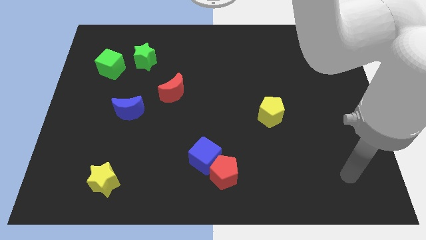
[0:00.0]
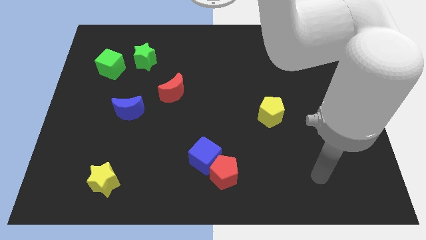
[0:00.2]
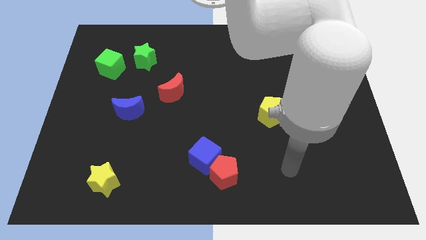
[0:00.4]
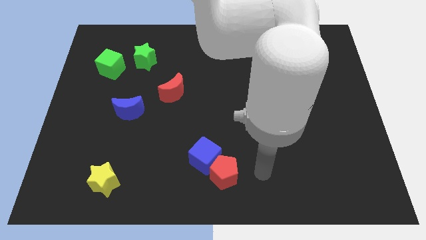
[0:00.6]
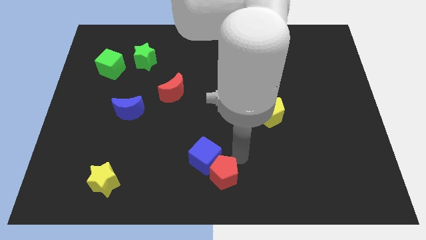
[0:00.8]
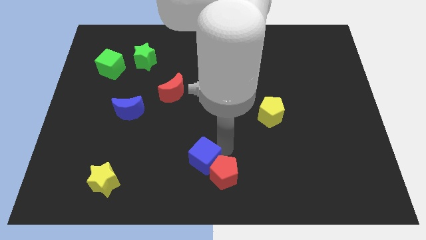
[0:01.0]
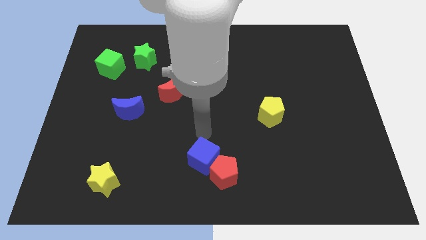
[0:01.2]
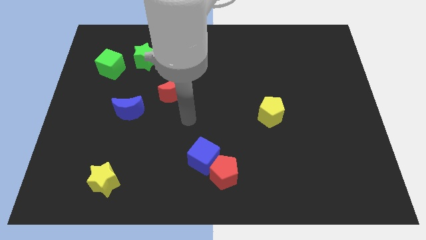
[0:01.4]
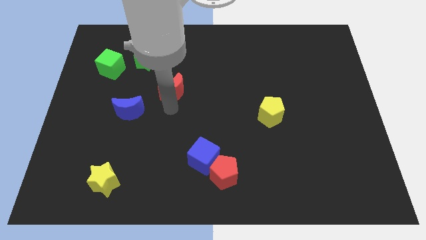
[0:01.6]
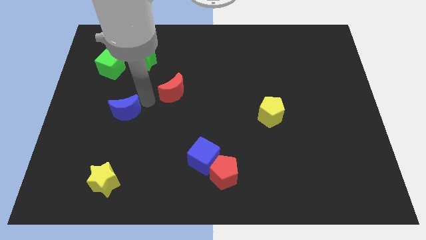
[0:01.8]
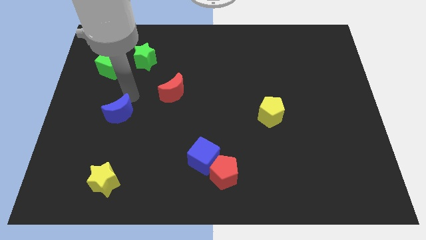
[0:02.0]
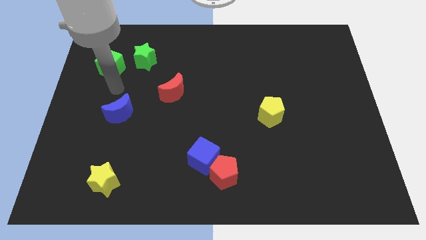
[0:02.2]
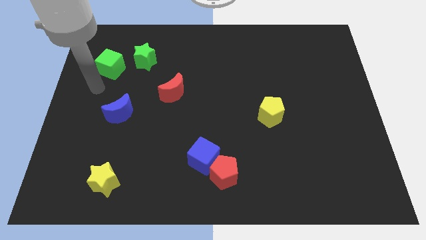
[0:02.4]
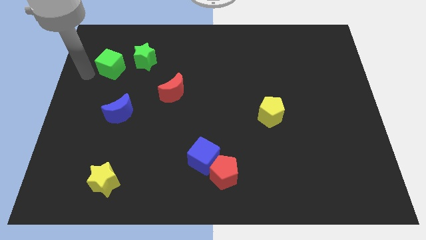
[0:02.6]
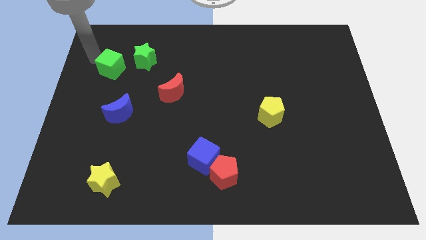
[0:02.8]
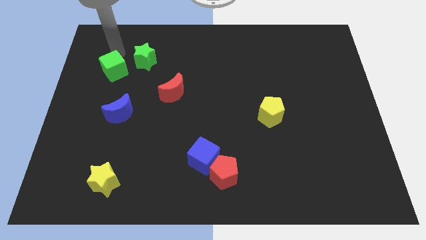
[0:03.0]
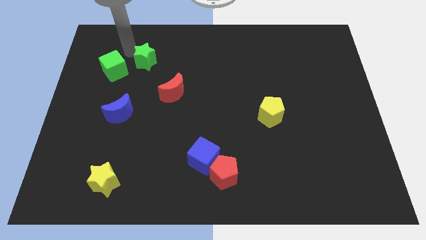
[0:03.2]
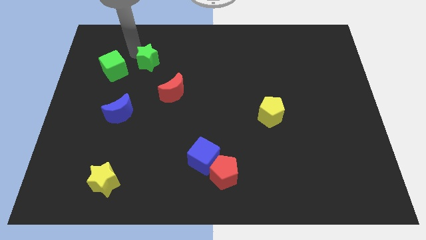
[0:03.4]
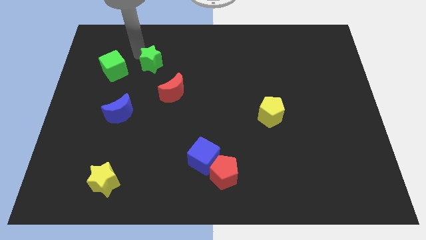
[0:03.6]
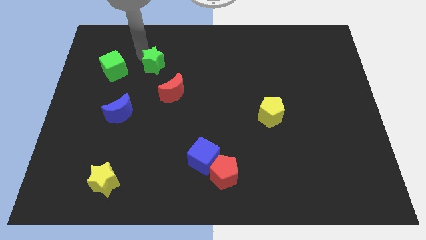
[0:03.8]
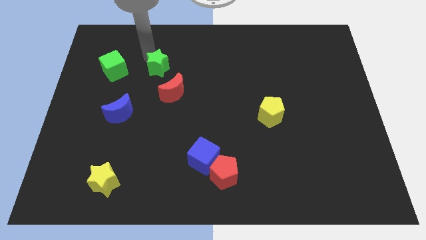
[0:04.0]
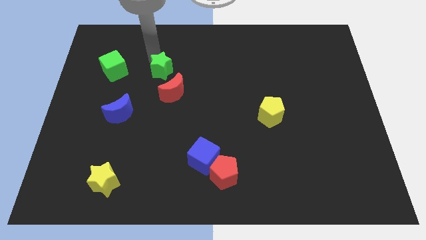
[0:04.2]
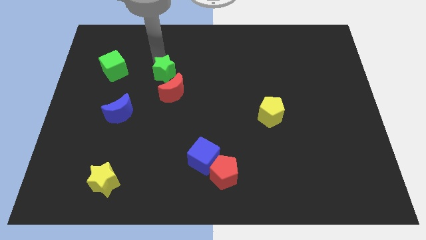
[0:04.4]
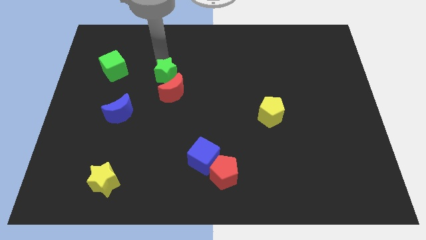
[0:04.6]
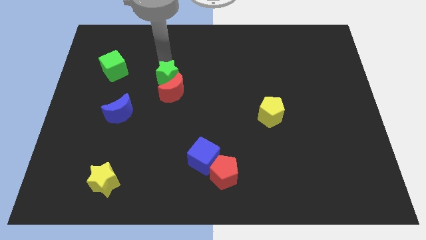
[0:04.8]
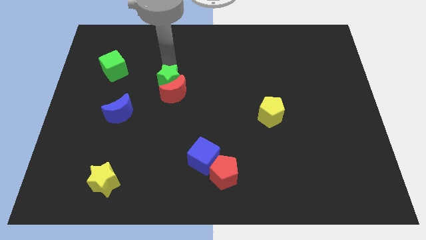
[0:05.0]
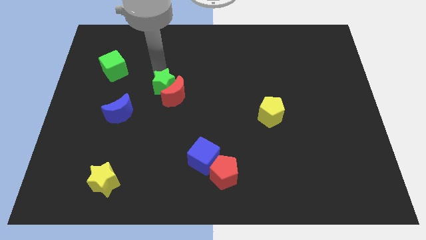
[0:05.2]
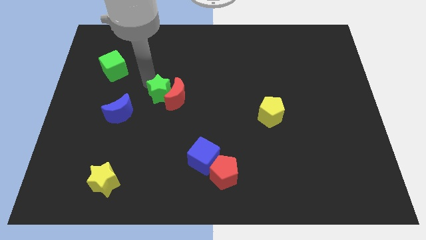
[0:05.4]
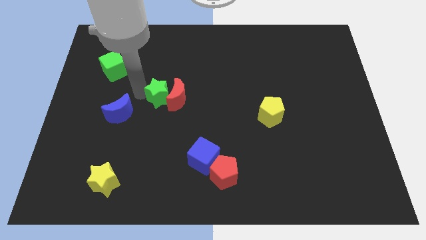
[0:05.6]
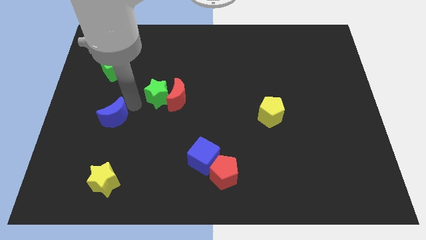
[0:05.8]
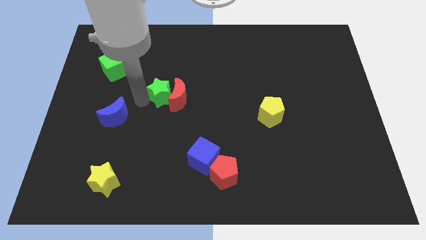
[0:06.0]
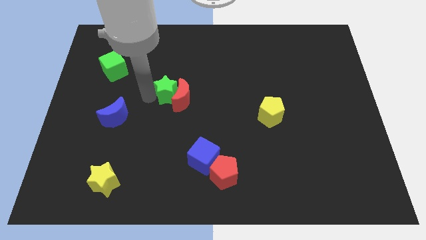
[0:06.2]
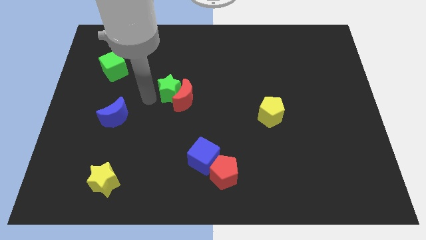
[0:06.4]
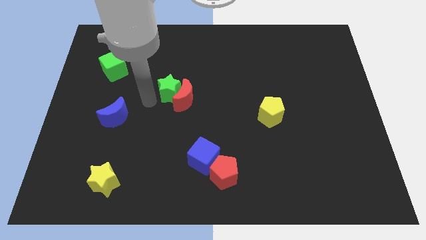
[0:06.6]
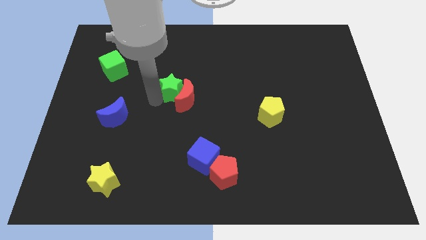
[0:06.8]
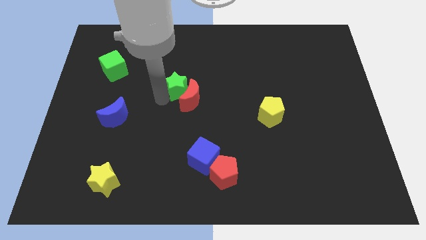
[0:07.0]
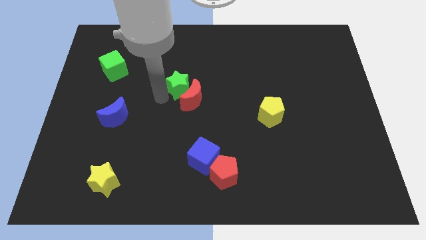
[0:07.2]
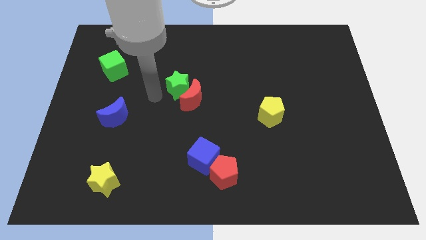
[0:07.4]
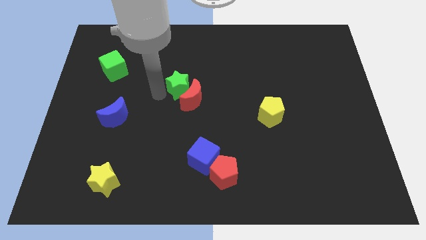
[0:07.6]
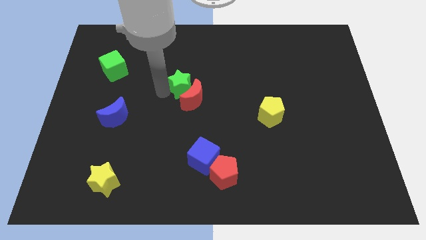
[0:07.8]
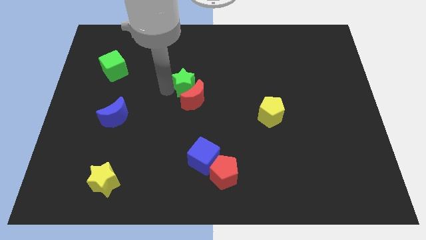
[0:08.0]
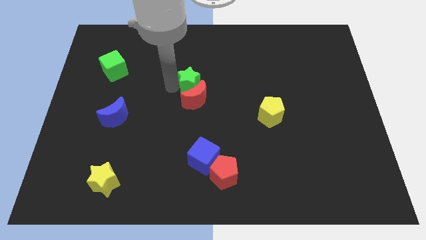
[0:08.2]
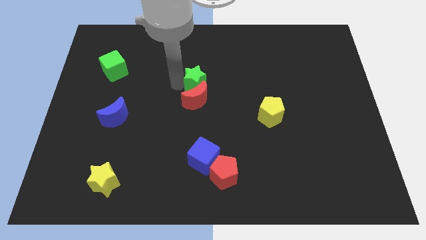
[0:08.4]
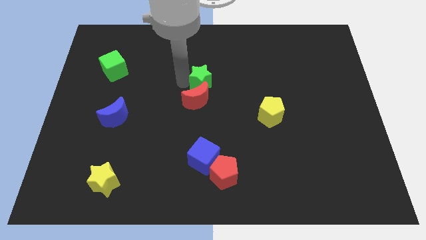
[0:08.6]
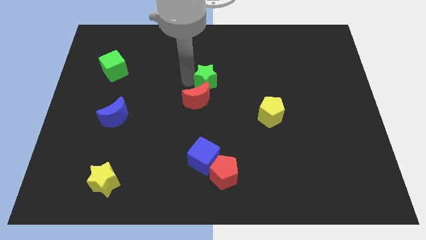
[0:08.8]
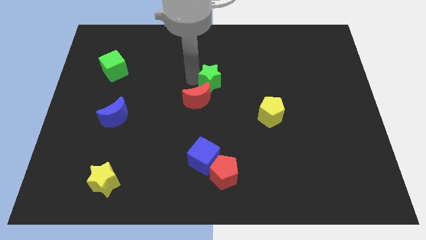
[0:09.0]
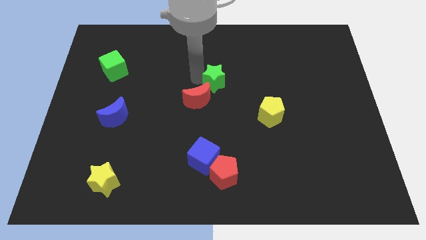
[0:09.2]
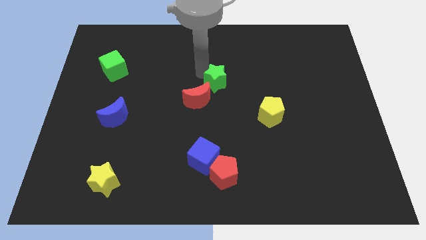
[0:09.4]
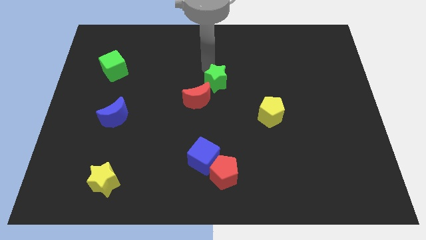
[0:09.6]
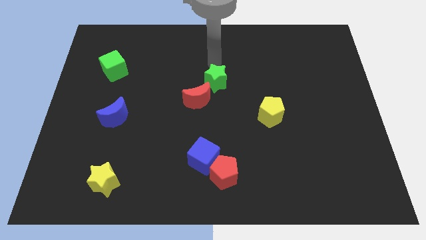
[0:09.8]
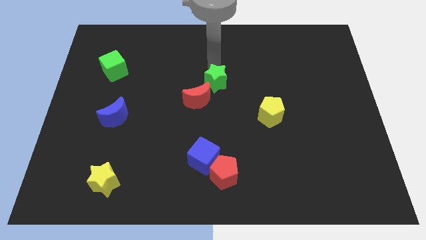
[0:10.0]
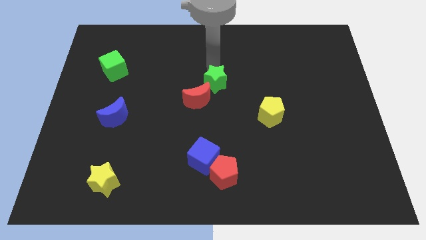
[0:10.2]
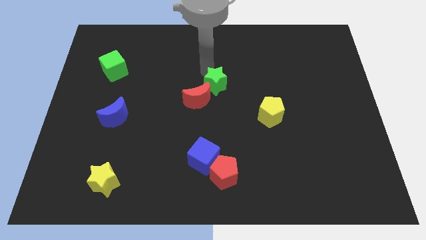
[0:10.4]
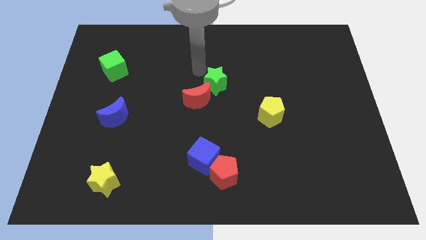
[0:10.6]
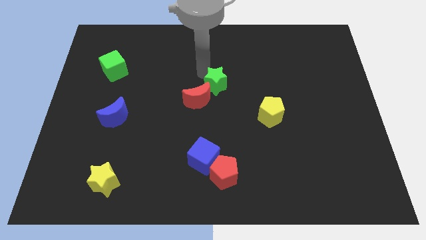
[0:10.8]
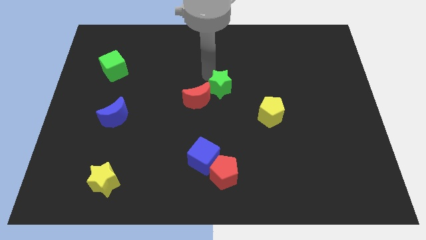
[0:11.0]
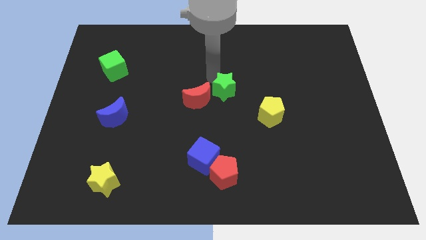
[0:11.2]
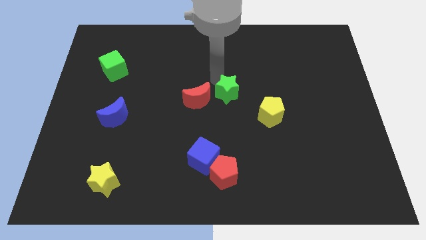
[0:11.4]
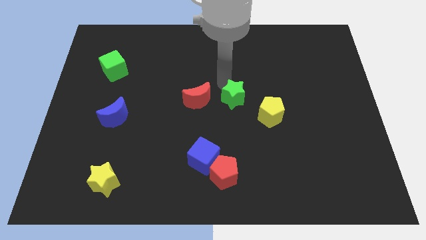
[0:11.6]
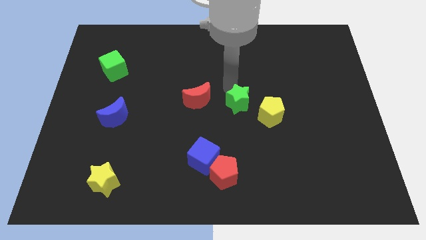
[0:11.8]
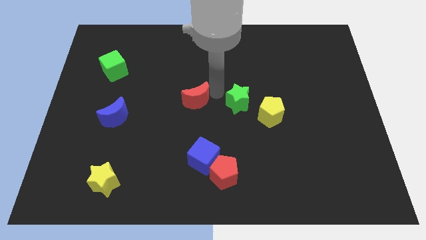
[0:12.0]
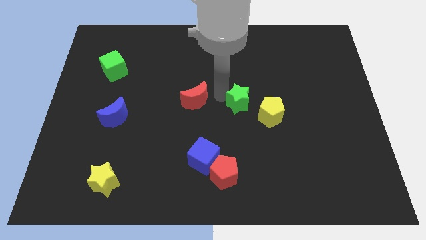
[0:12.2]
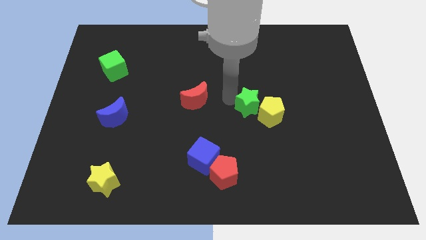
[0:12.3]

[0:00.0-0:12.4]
move the green star close to the yellow pentagon

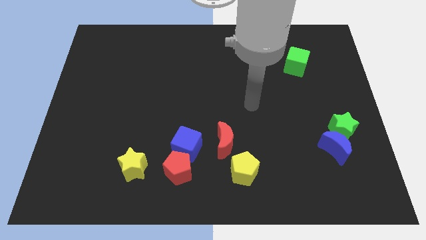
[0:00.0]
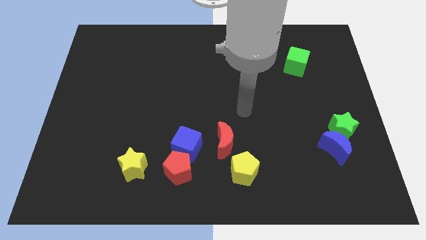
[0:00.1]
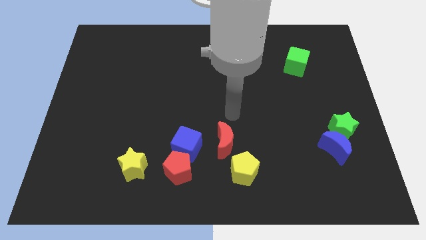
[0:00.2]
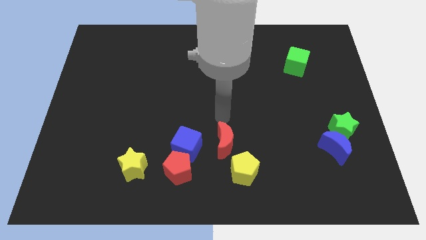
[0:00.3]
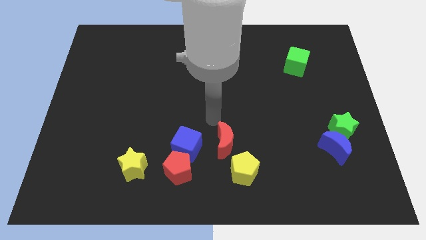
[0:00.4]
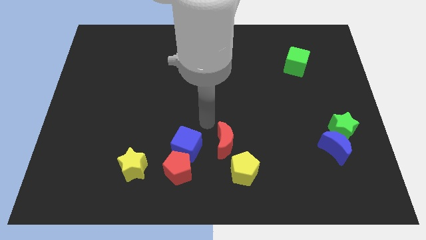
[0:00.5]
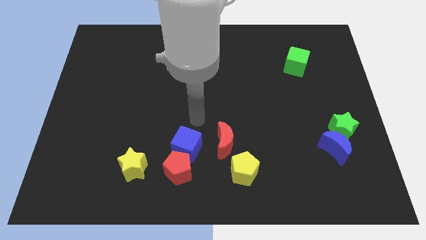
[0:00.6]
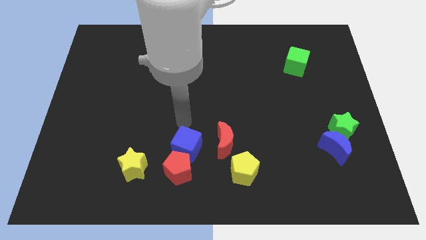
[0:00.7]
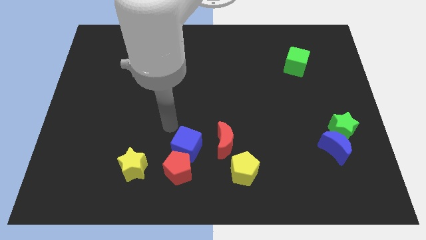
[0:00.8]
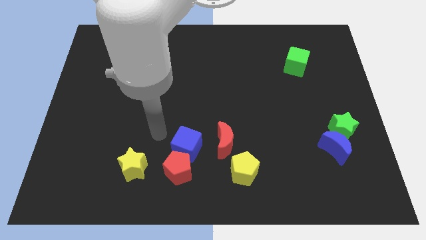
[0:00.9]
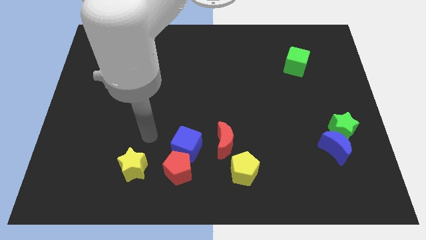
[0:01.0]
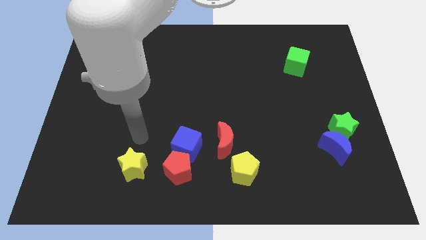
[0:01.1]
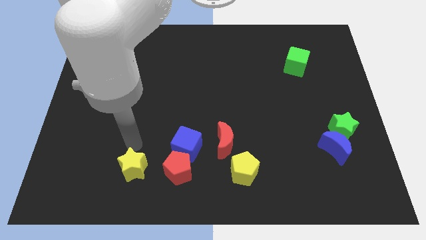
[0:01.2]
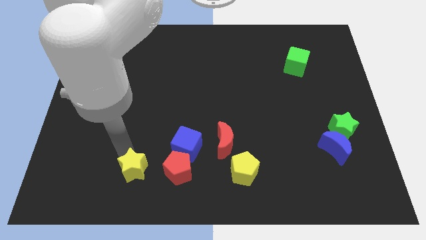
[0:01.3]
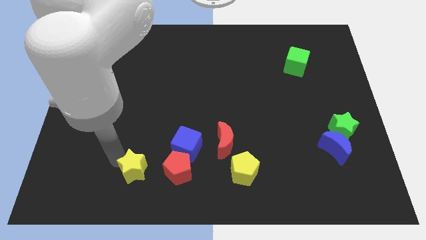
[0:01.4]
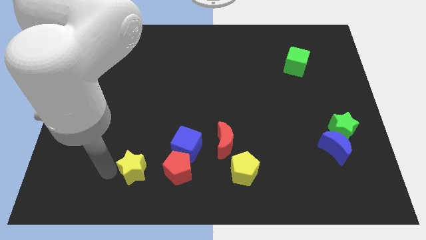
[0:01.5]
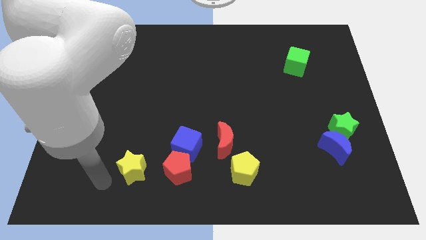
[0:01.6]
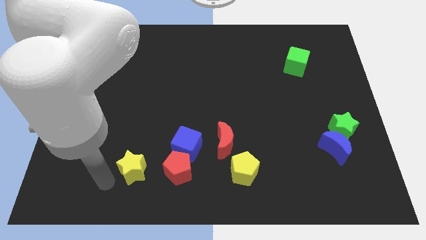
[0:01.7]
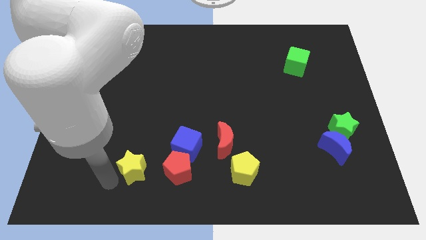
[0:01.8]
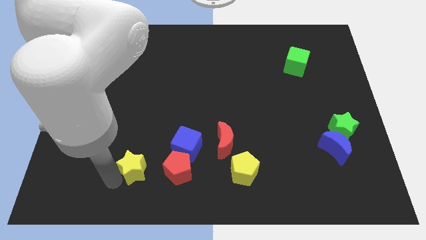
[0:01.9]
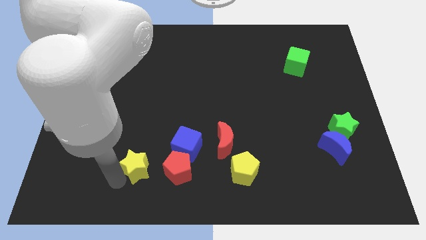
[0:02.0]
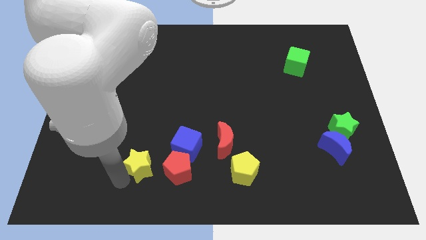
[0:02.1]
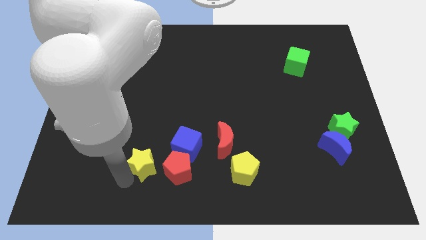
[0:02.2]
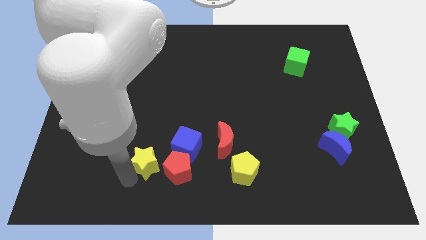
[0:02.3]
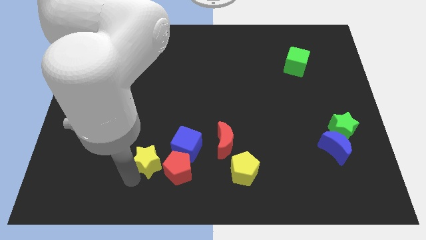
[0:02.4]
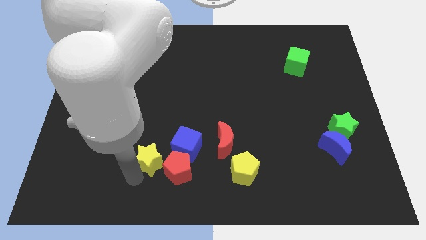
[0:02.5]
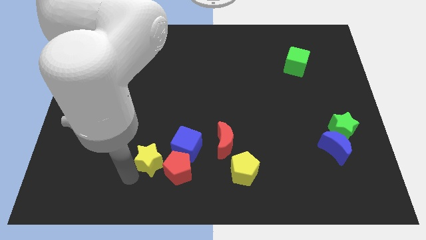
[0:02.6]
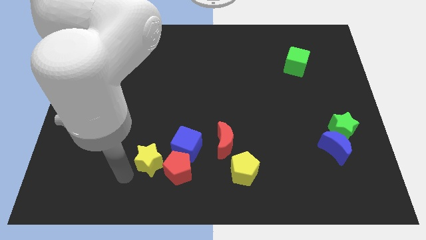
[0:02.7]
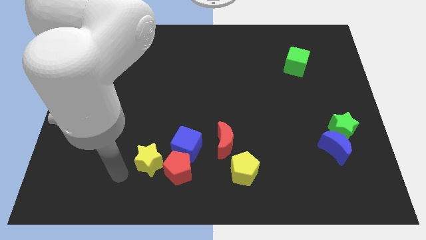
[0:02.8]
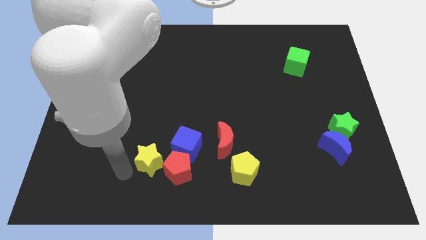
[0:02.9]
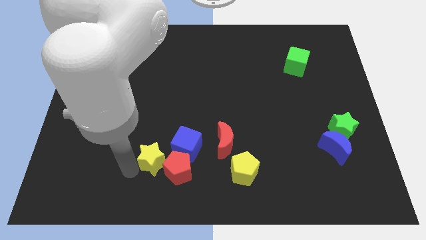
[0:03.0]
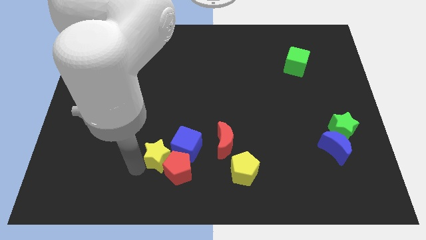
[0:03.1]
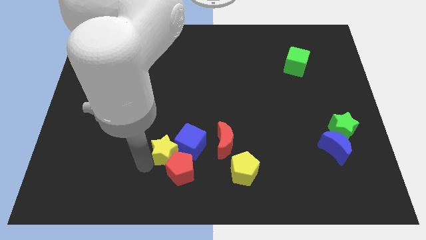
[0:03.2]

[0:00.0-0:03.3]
move the yellow star to the blue cube
